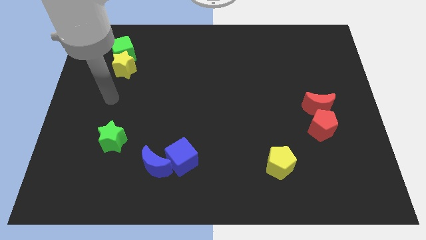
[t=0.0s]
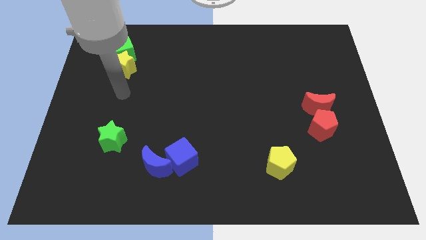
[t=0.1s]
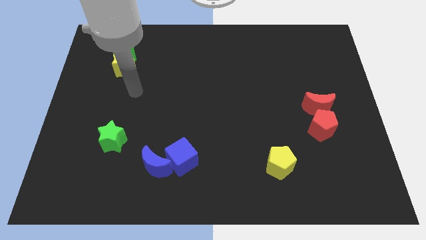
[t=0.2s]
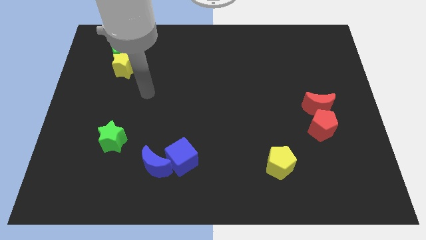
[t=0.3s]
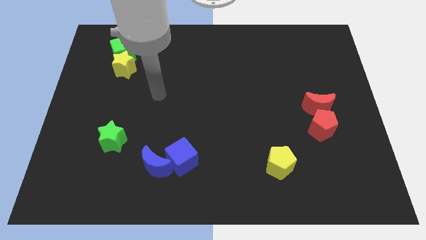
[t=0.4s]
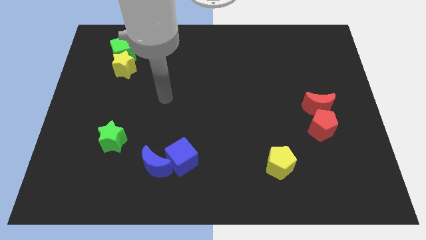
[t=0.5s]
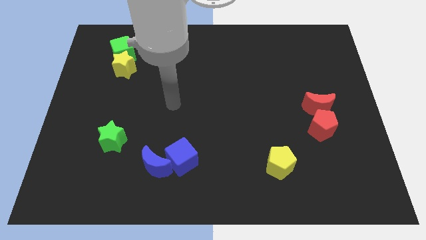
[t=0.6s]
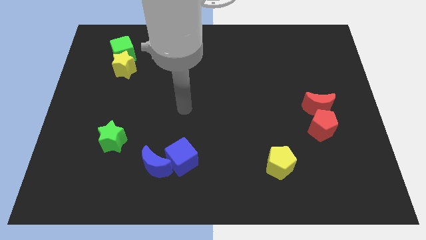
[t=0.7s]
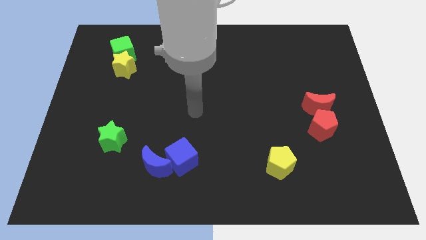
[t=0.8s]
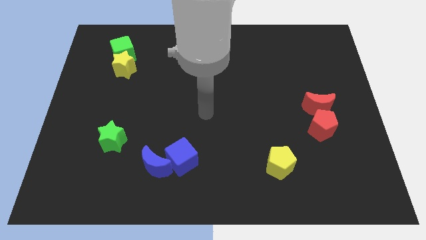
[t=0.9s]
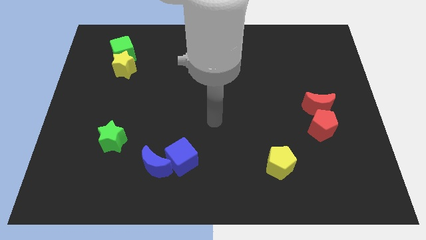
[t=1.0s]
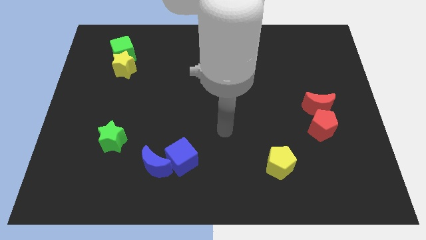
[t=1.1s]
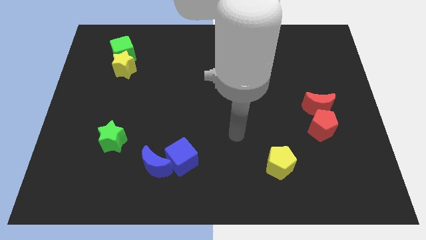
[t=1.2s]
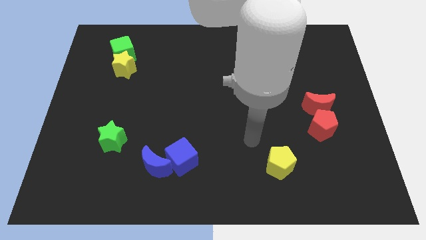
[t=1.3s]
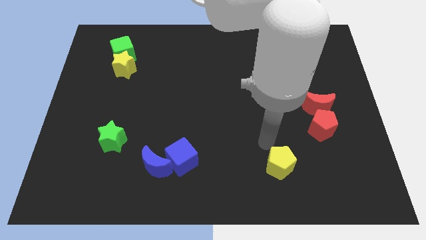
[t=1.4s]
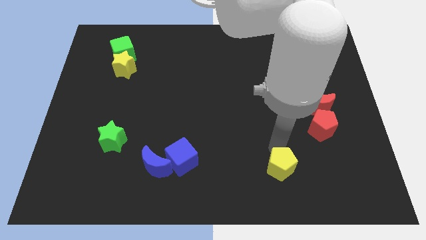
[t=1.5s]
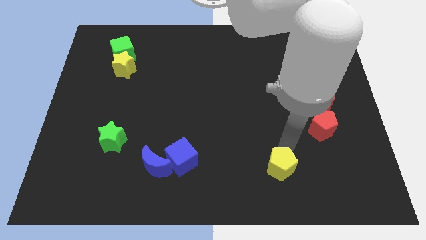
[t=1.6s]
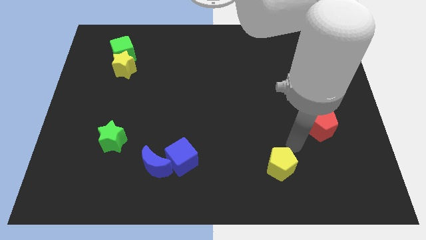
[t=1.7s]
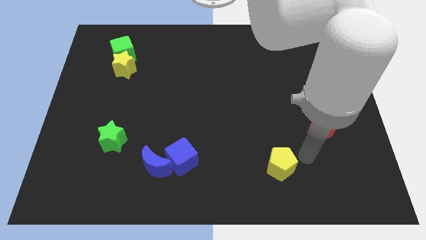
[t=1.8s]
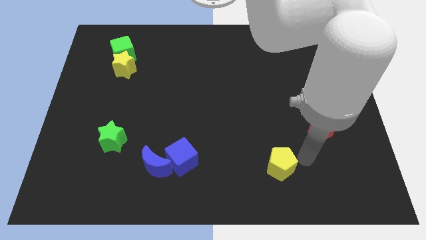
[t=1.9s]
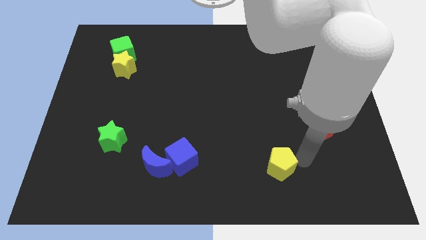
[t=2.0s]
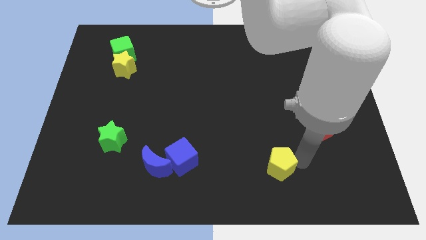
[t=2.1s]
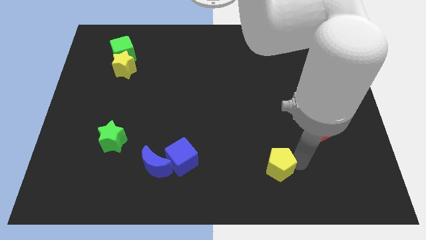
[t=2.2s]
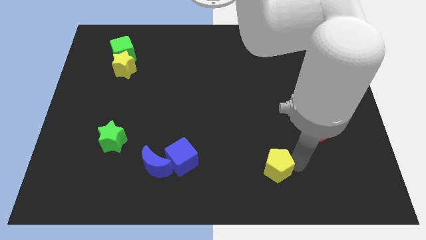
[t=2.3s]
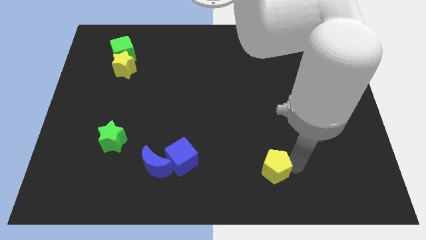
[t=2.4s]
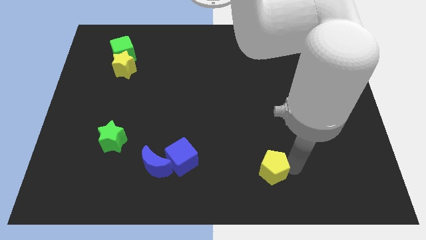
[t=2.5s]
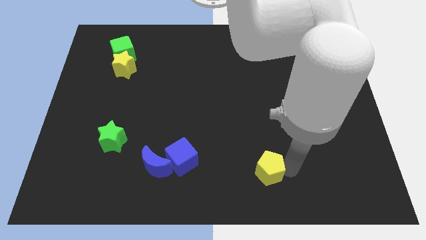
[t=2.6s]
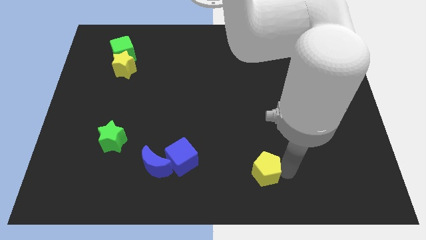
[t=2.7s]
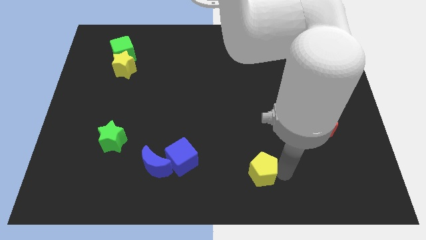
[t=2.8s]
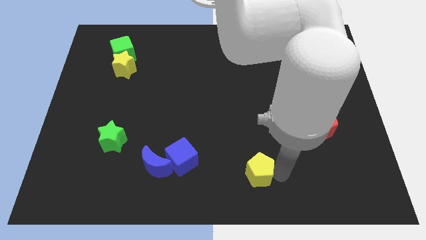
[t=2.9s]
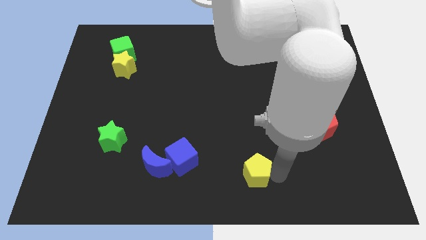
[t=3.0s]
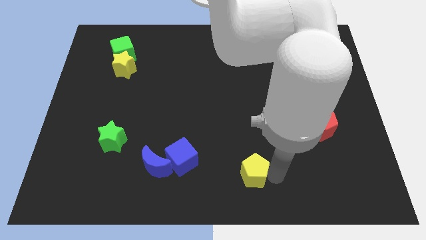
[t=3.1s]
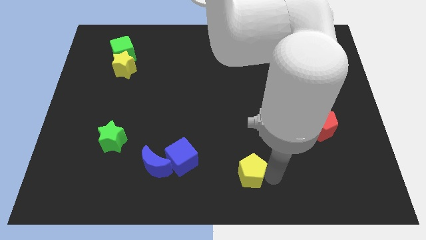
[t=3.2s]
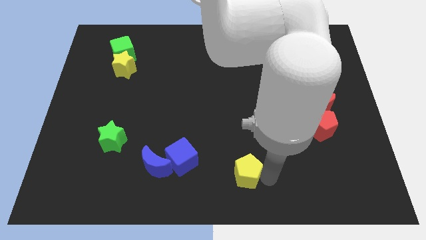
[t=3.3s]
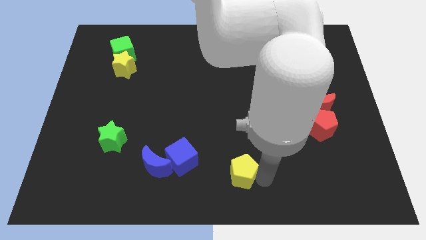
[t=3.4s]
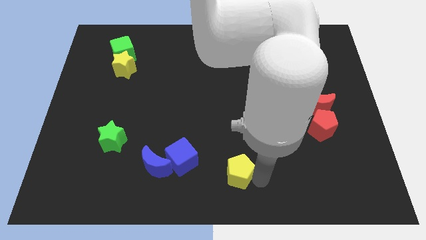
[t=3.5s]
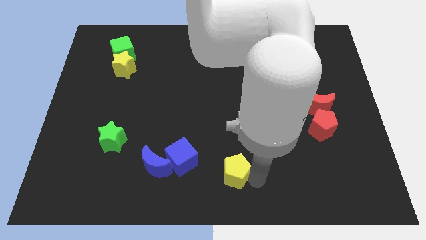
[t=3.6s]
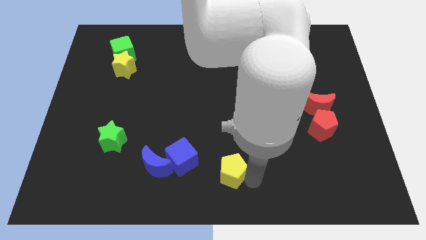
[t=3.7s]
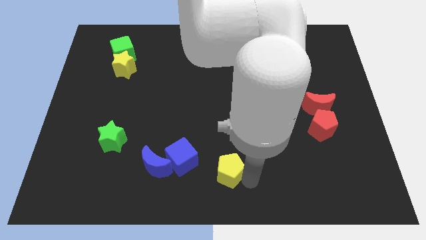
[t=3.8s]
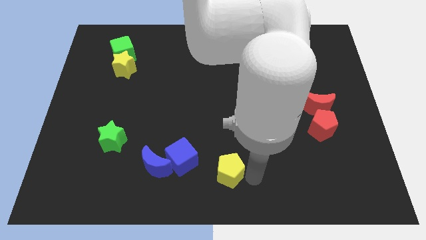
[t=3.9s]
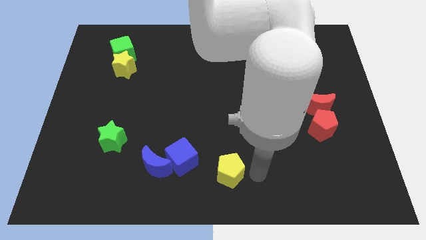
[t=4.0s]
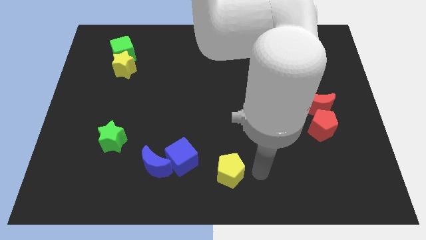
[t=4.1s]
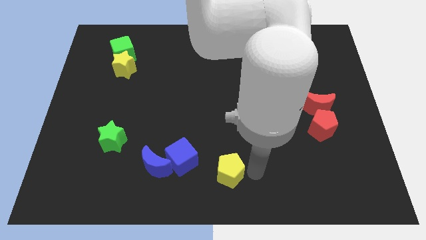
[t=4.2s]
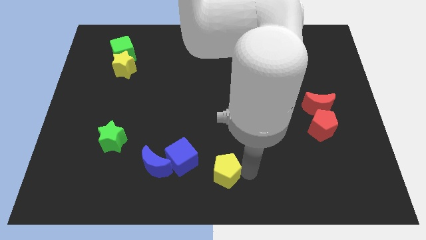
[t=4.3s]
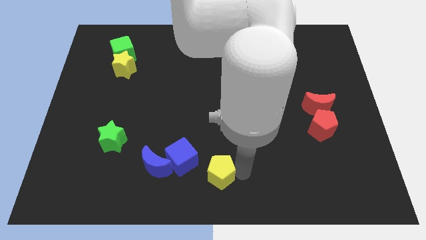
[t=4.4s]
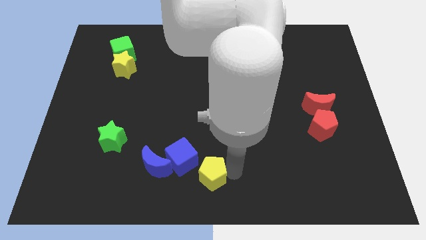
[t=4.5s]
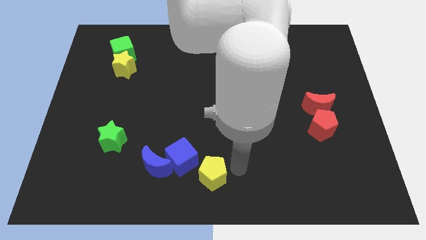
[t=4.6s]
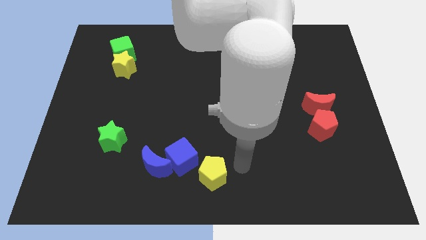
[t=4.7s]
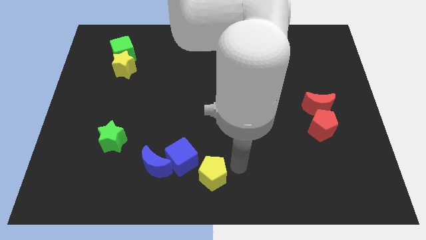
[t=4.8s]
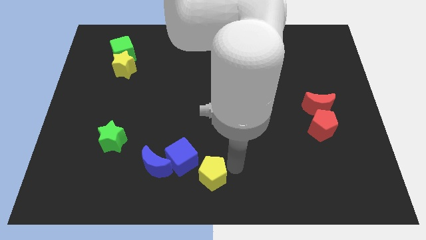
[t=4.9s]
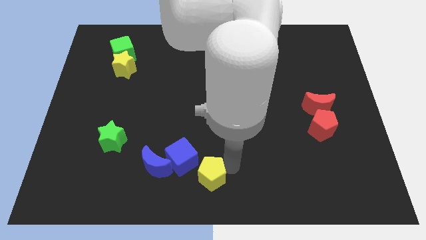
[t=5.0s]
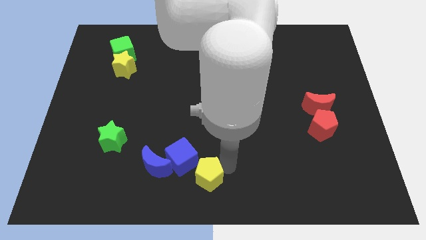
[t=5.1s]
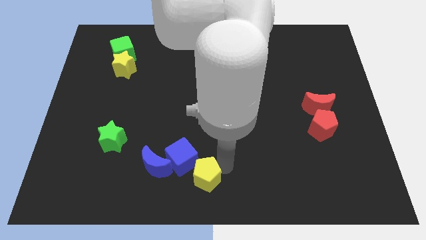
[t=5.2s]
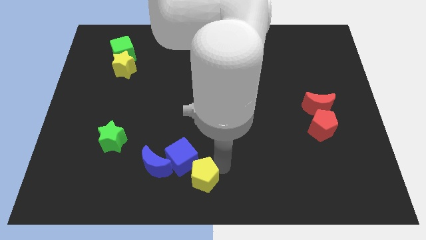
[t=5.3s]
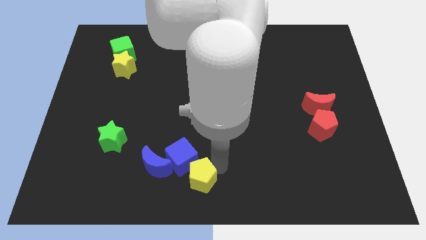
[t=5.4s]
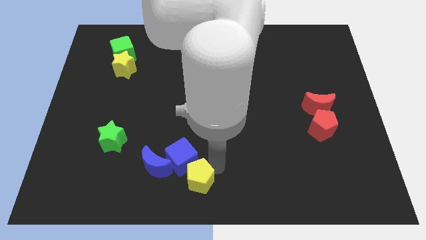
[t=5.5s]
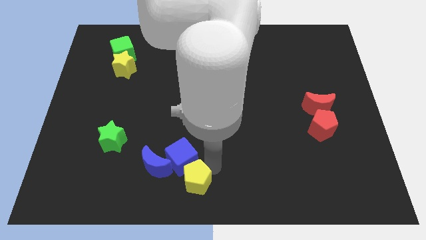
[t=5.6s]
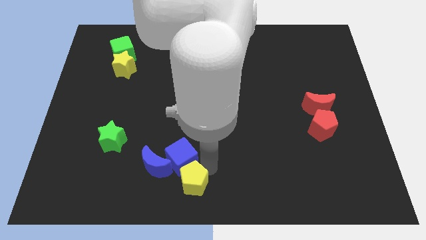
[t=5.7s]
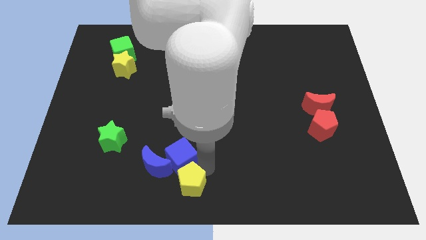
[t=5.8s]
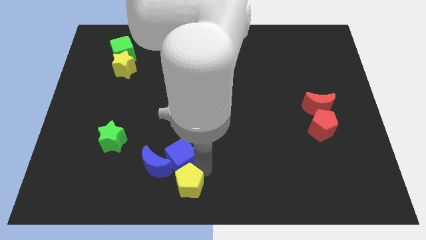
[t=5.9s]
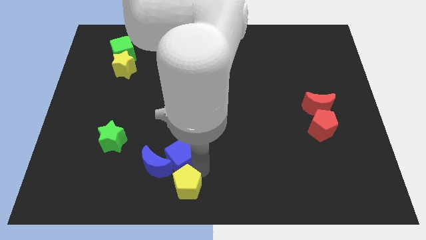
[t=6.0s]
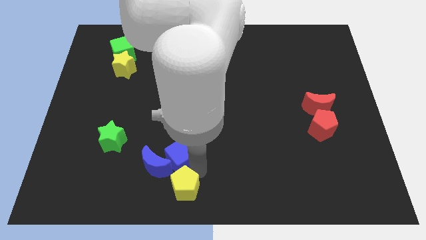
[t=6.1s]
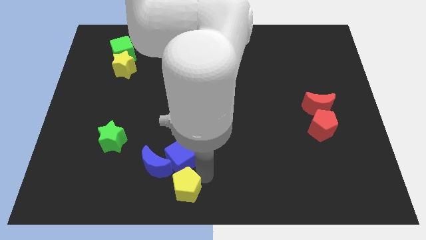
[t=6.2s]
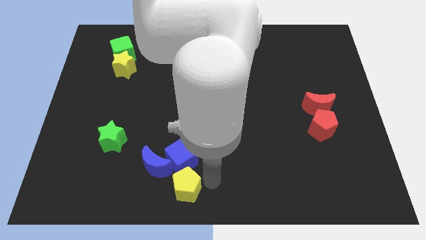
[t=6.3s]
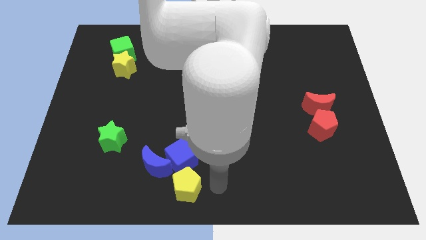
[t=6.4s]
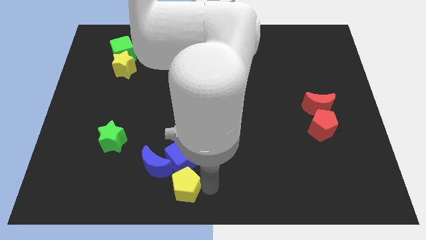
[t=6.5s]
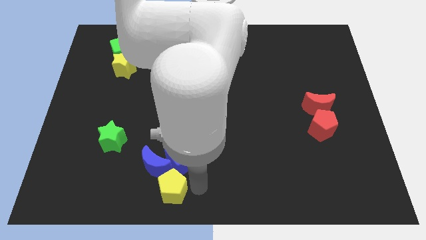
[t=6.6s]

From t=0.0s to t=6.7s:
push the yellow pentagon to the left

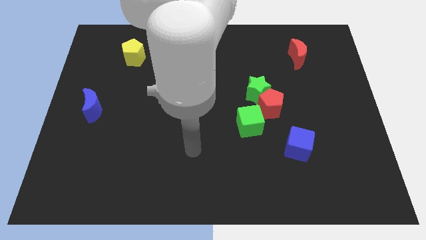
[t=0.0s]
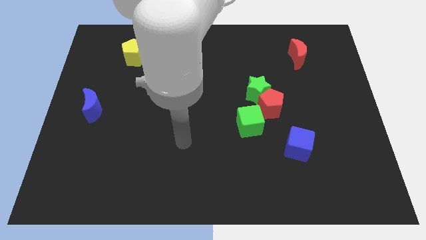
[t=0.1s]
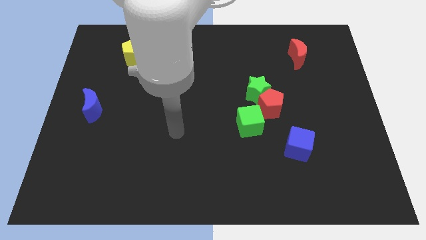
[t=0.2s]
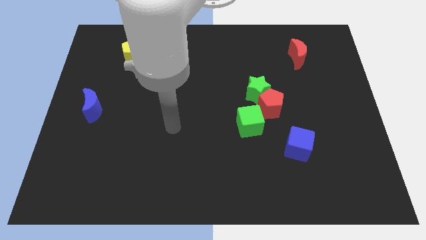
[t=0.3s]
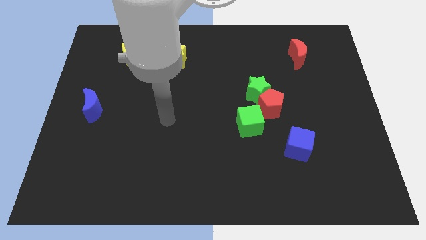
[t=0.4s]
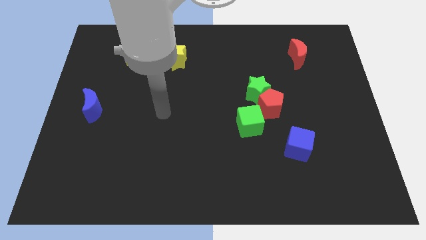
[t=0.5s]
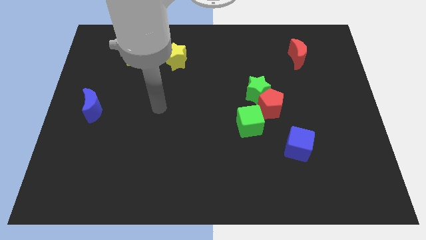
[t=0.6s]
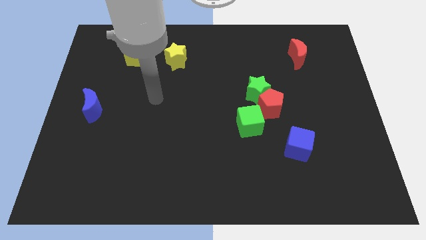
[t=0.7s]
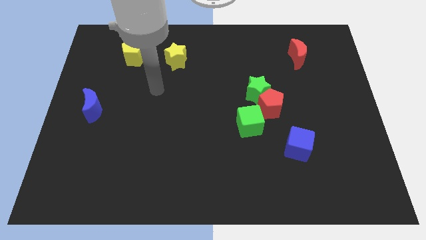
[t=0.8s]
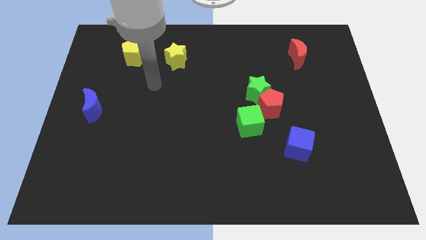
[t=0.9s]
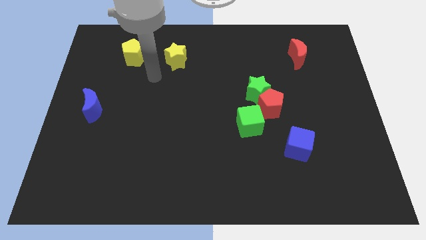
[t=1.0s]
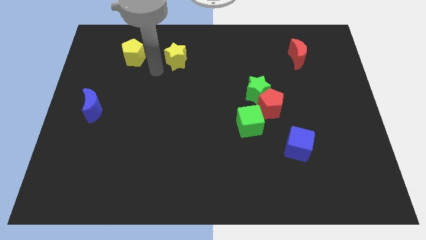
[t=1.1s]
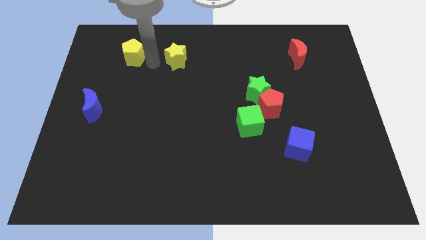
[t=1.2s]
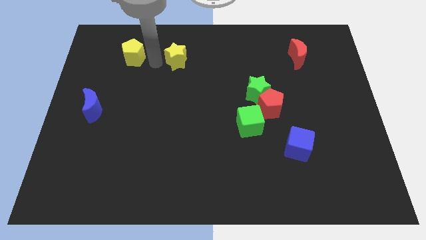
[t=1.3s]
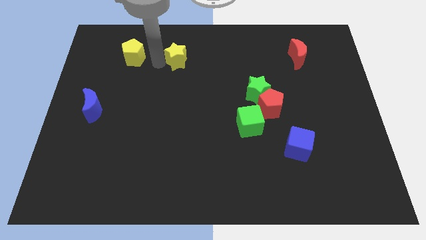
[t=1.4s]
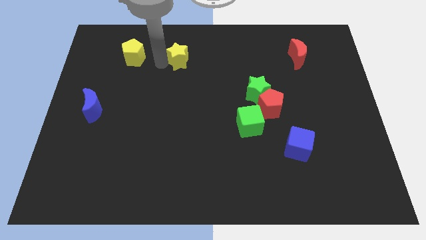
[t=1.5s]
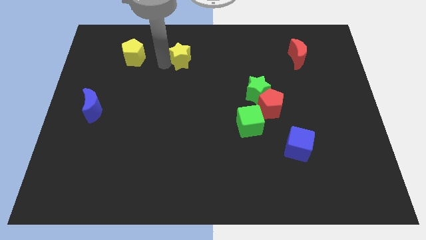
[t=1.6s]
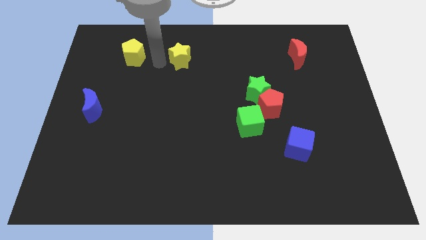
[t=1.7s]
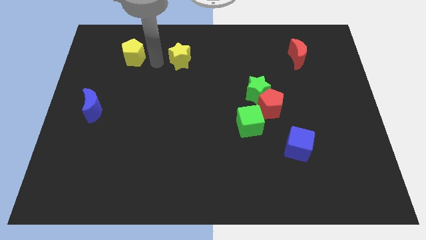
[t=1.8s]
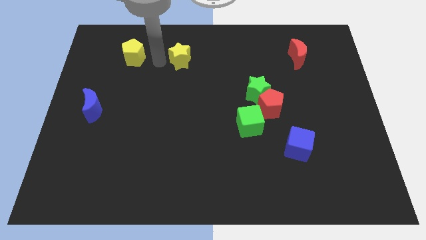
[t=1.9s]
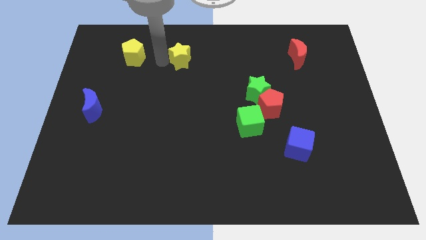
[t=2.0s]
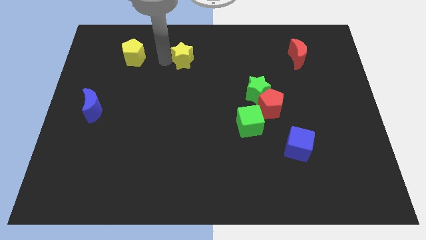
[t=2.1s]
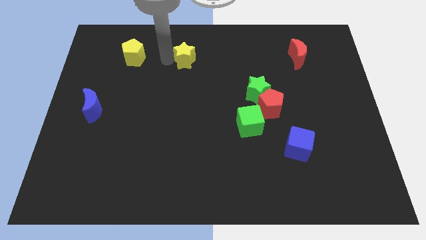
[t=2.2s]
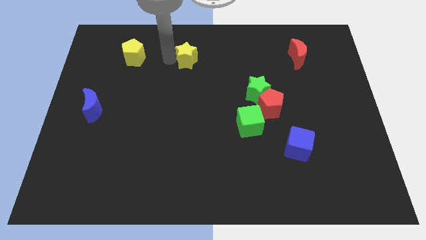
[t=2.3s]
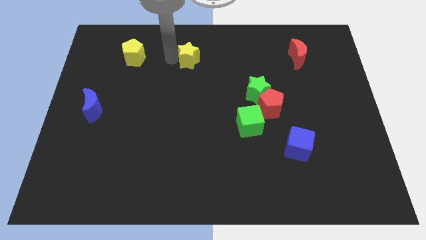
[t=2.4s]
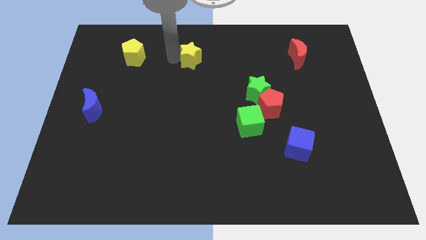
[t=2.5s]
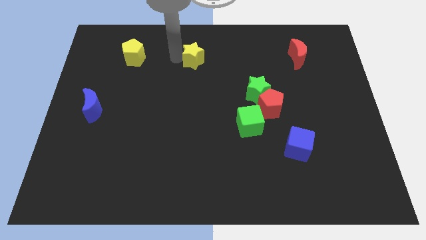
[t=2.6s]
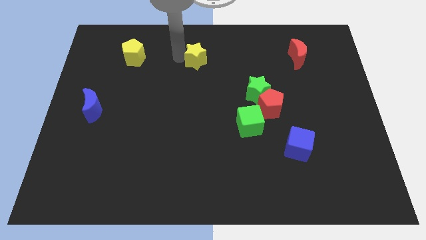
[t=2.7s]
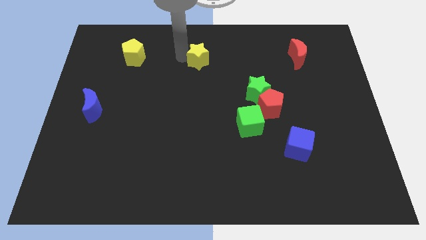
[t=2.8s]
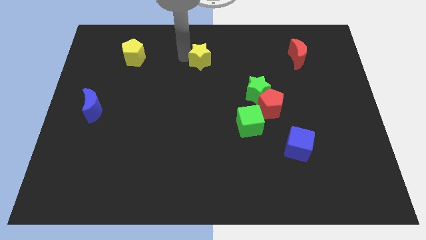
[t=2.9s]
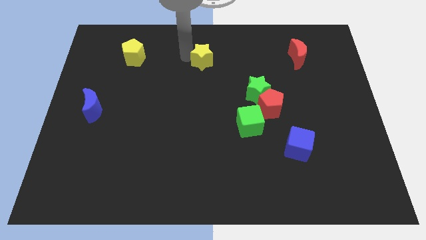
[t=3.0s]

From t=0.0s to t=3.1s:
push the yellow star right a little
